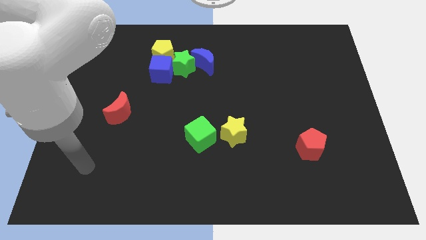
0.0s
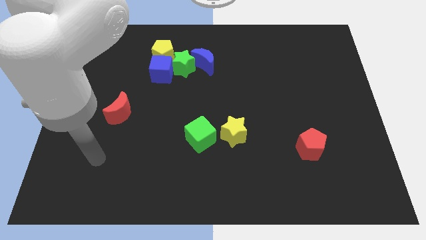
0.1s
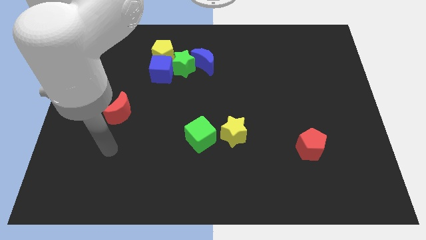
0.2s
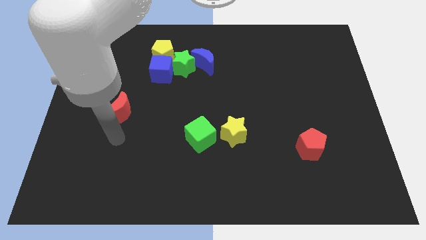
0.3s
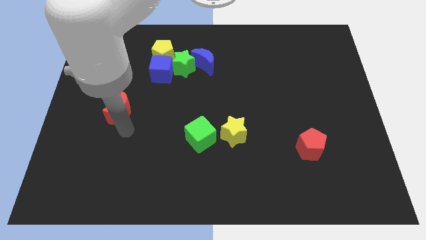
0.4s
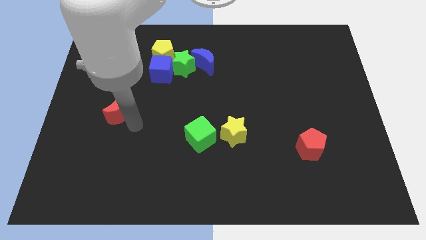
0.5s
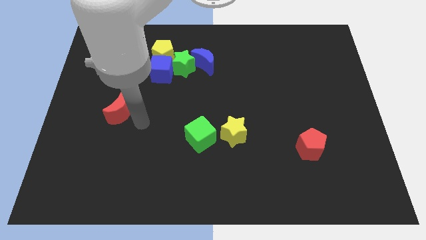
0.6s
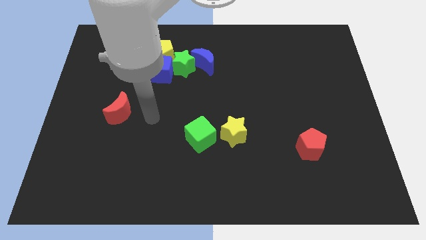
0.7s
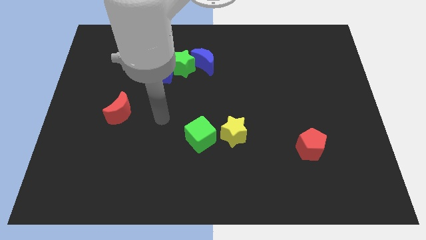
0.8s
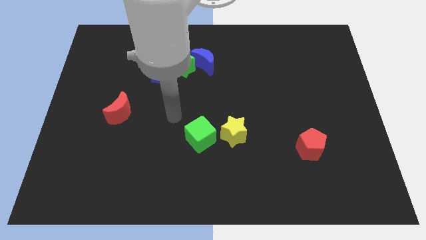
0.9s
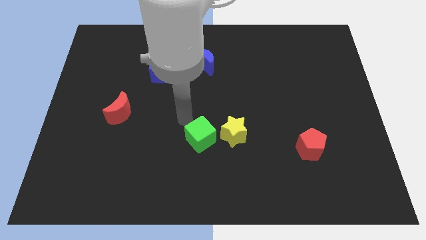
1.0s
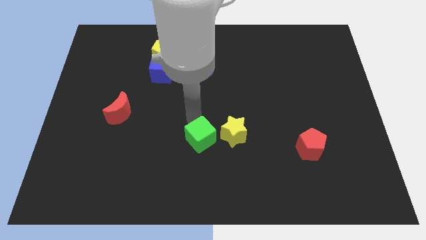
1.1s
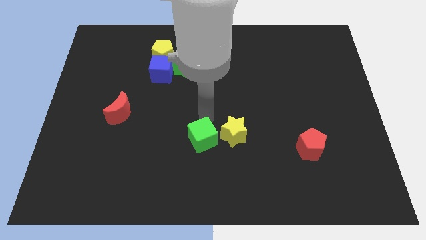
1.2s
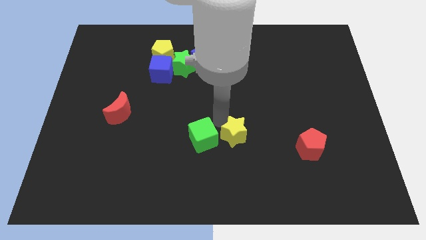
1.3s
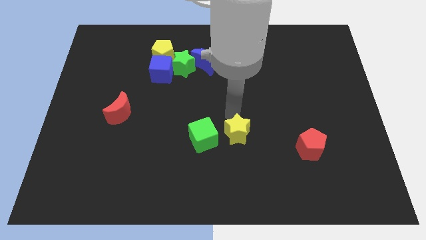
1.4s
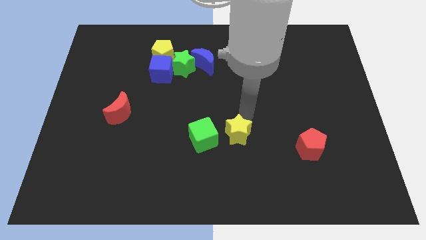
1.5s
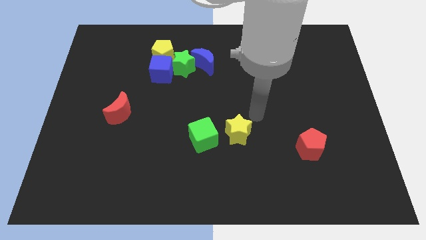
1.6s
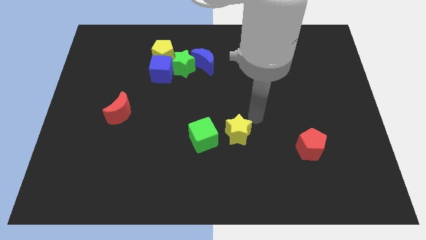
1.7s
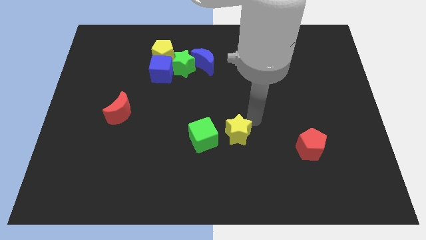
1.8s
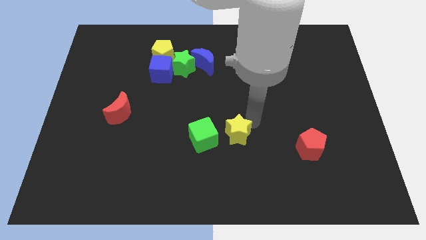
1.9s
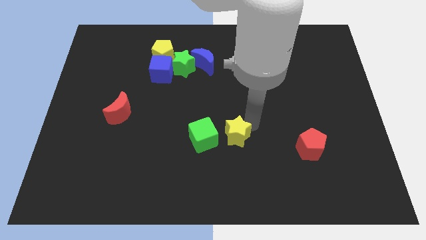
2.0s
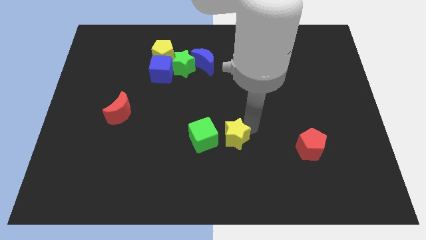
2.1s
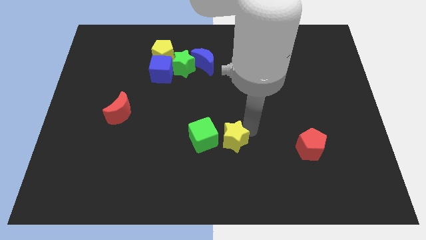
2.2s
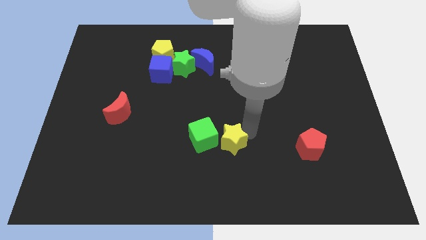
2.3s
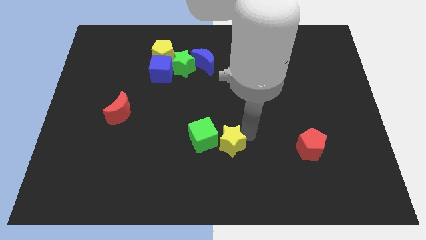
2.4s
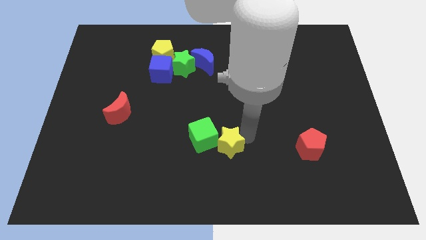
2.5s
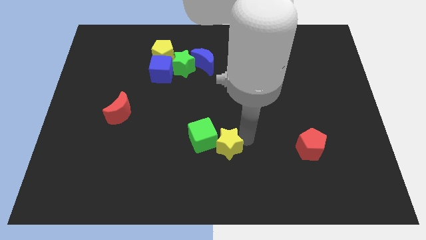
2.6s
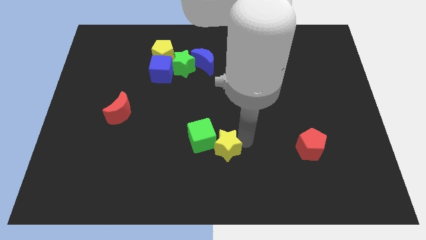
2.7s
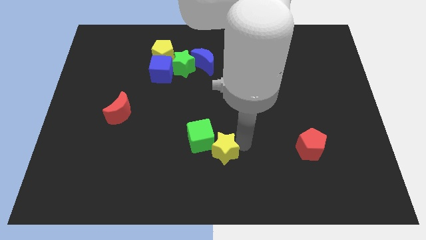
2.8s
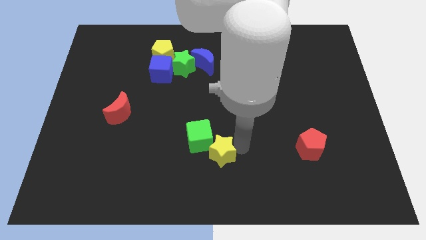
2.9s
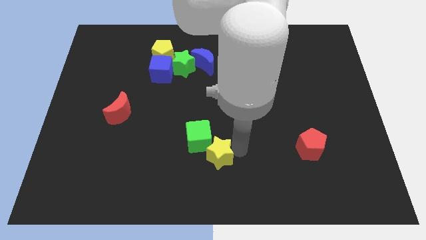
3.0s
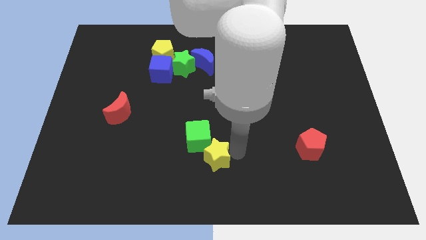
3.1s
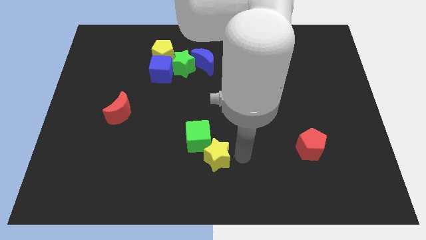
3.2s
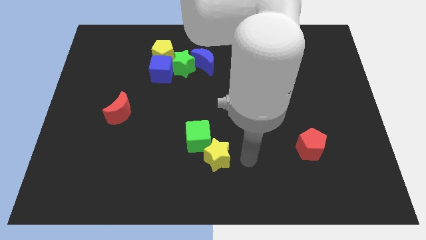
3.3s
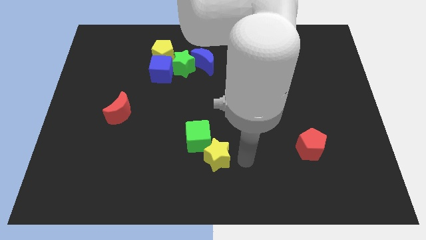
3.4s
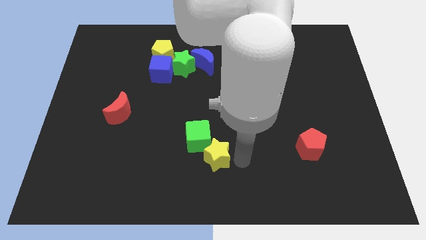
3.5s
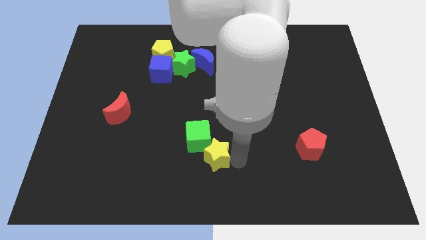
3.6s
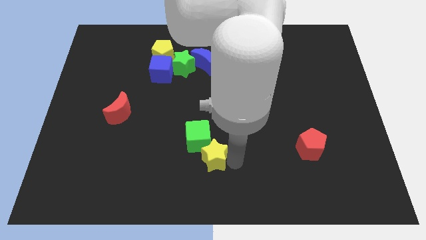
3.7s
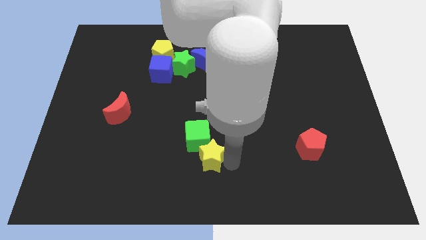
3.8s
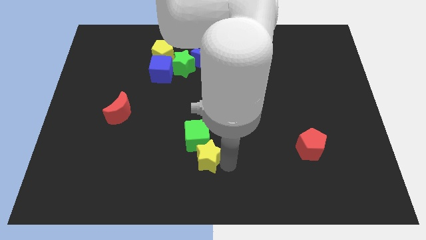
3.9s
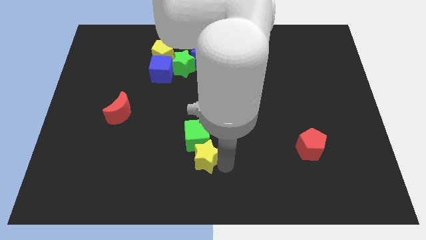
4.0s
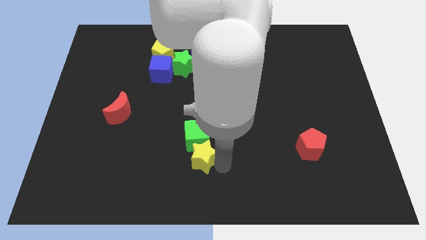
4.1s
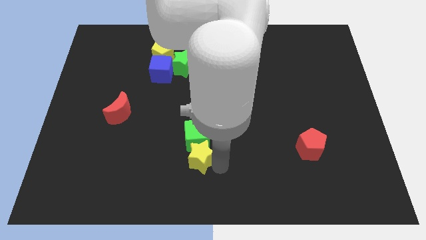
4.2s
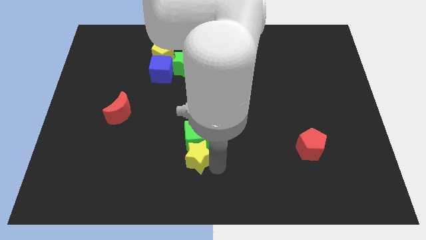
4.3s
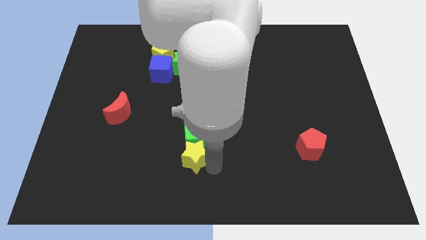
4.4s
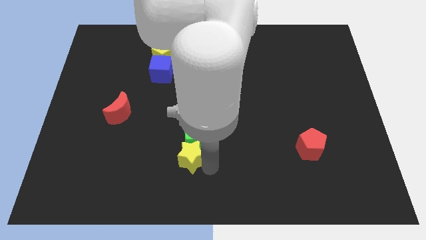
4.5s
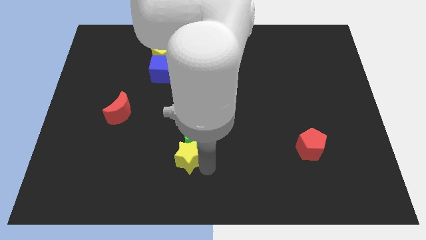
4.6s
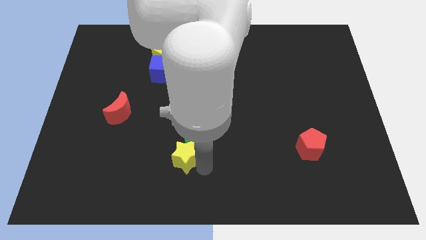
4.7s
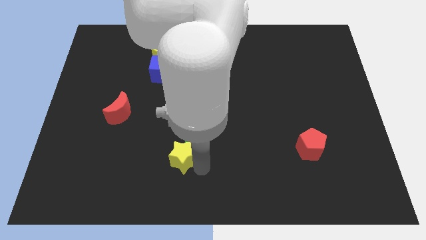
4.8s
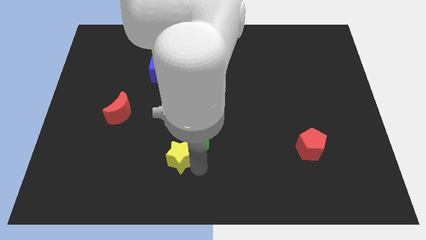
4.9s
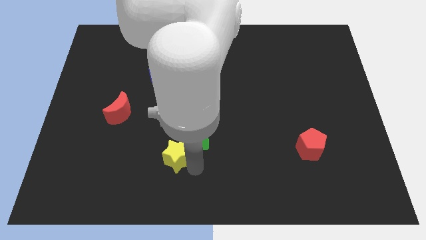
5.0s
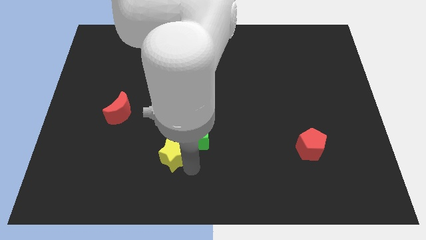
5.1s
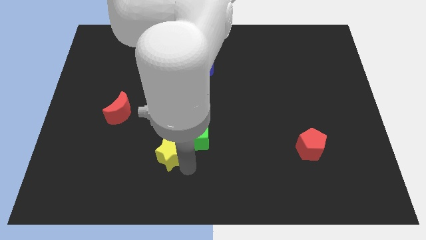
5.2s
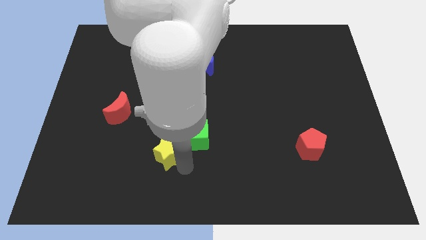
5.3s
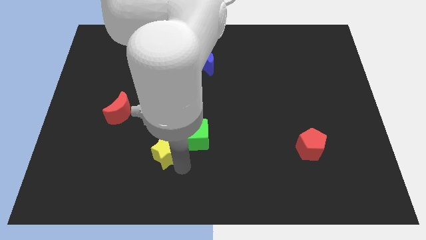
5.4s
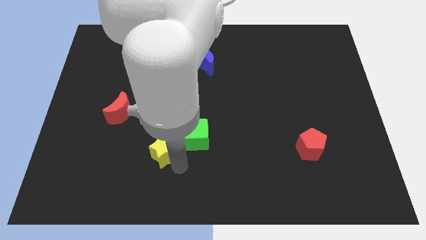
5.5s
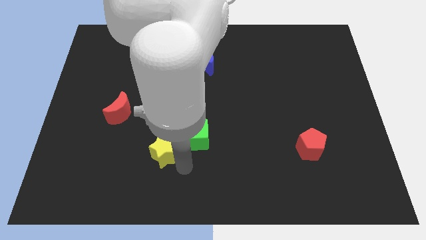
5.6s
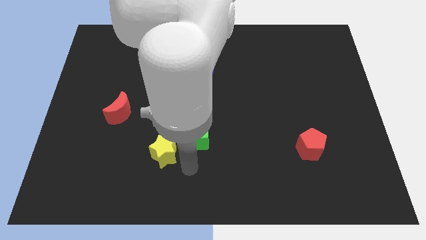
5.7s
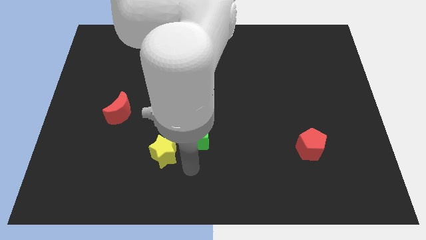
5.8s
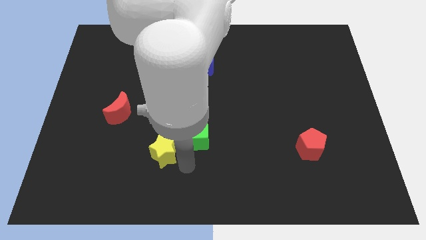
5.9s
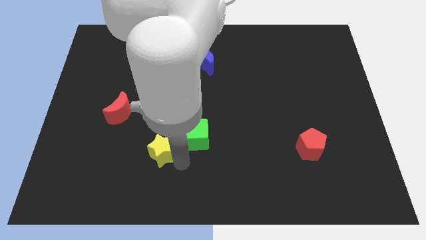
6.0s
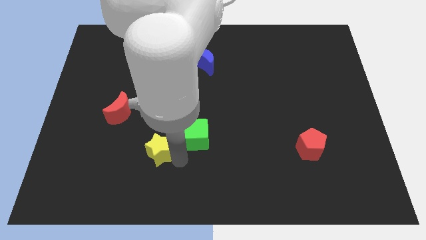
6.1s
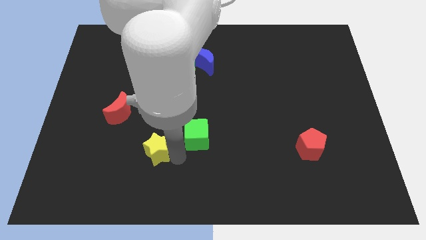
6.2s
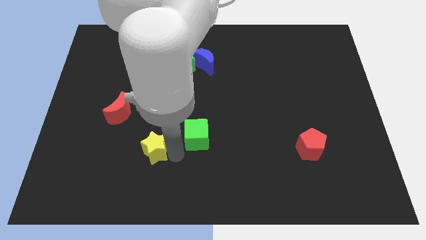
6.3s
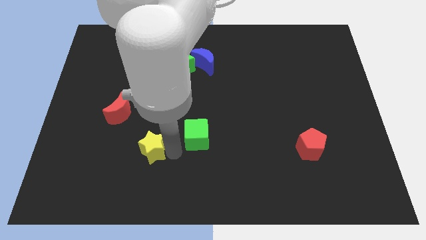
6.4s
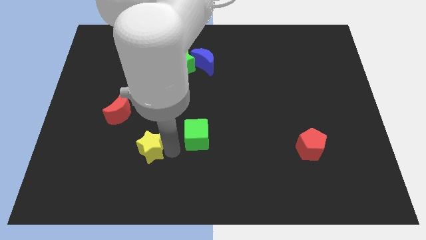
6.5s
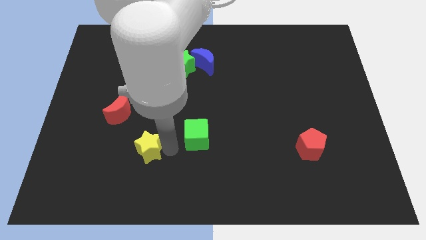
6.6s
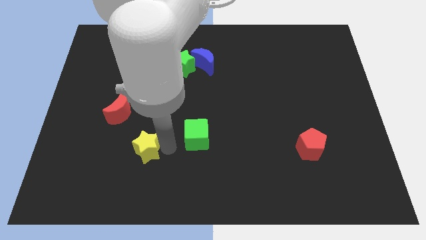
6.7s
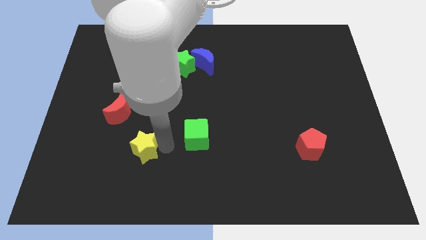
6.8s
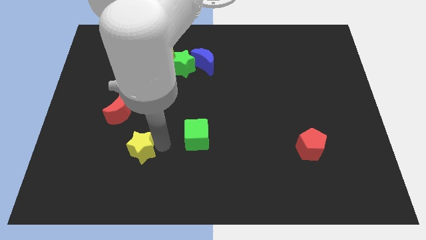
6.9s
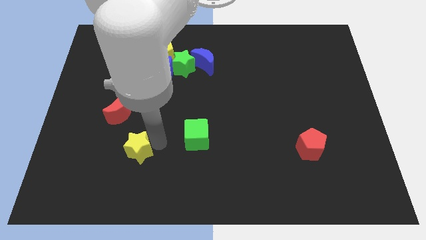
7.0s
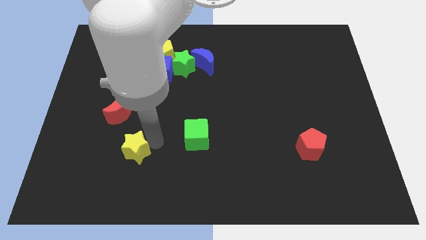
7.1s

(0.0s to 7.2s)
push the yellow star to the left

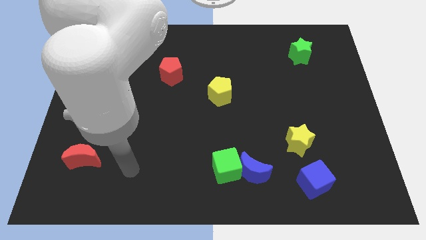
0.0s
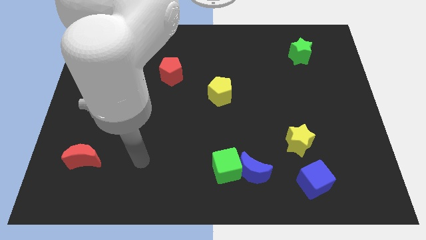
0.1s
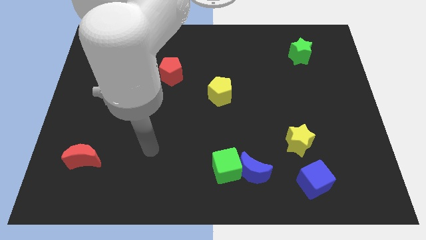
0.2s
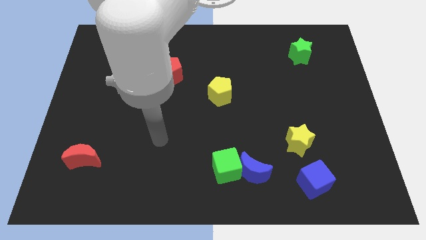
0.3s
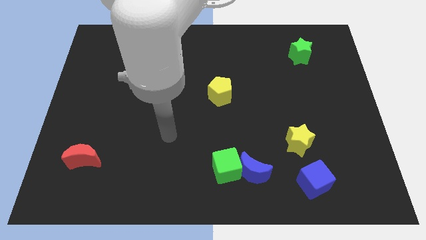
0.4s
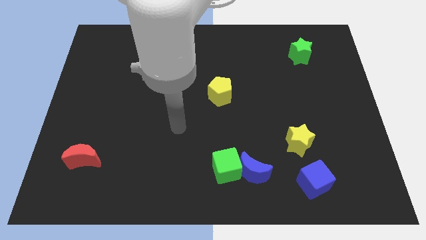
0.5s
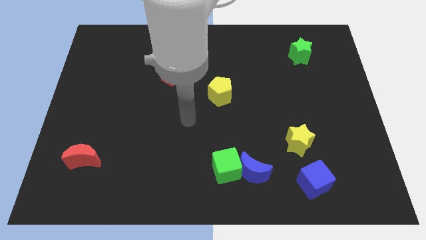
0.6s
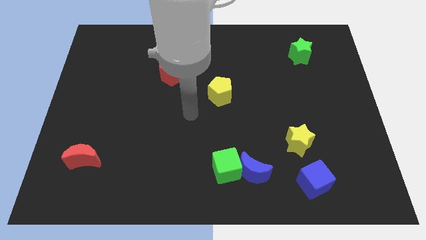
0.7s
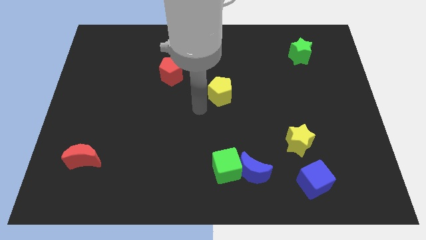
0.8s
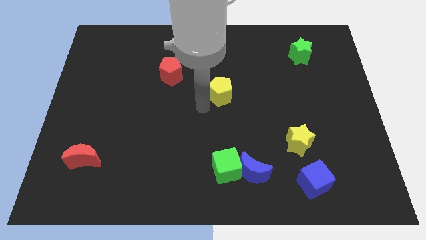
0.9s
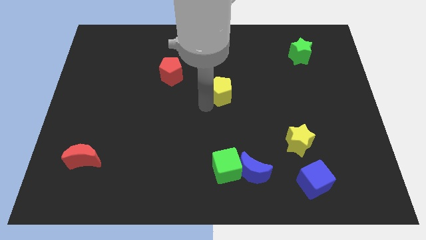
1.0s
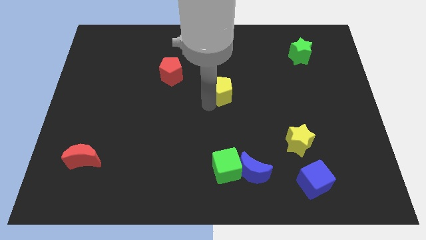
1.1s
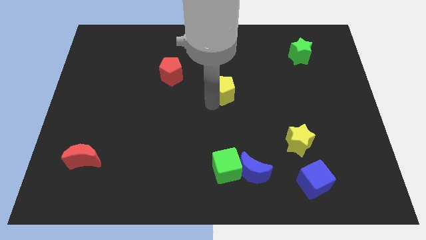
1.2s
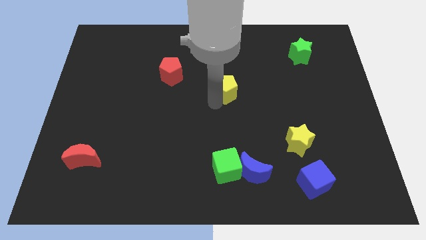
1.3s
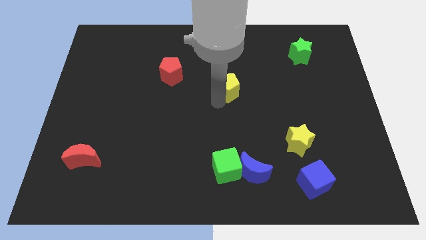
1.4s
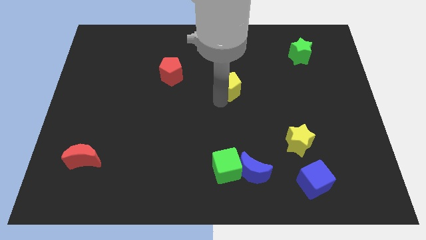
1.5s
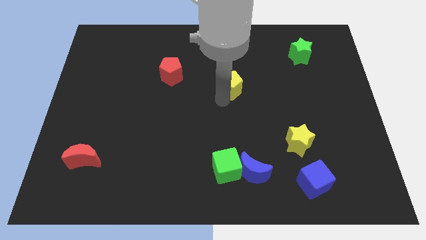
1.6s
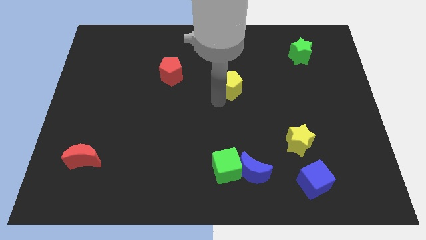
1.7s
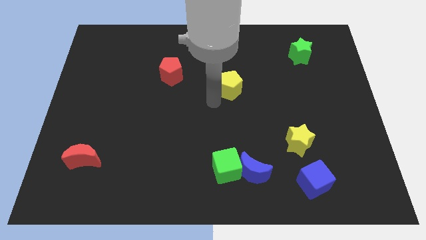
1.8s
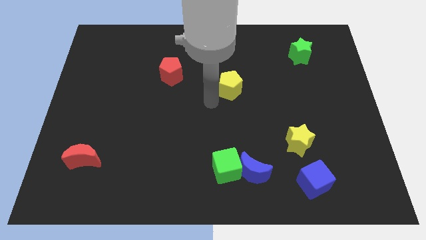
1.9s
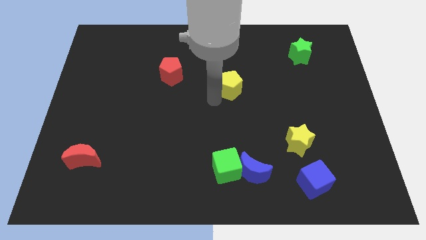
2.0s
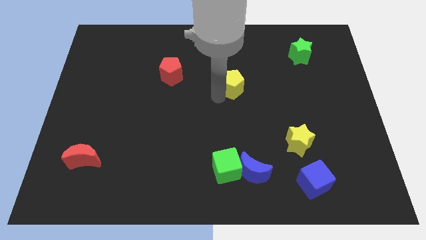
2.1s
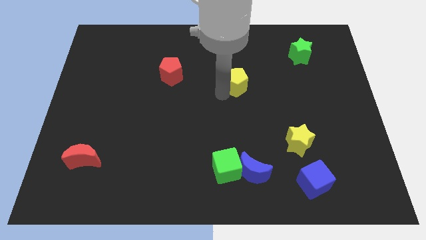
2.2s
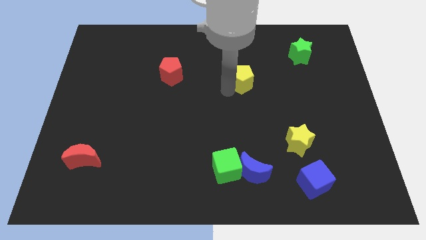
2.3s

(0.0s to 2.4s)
push the yellow pentagon diagonally up and right somewhat
